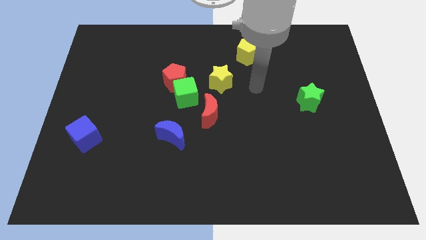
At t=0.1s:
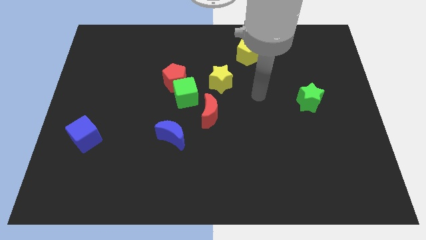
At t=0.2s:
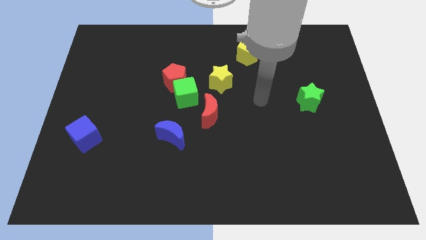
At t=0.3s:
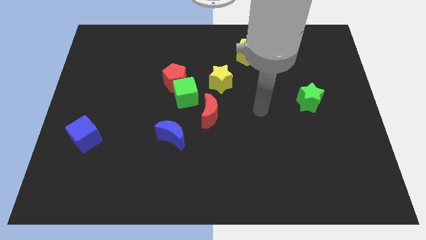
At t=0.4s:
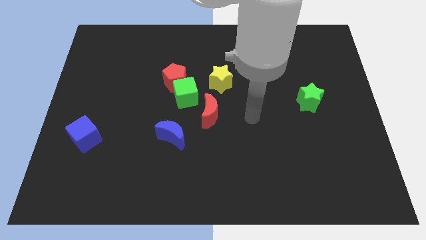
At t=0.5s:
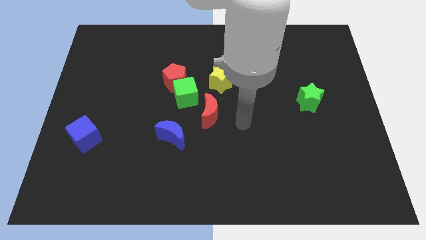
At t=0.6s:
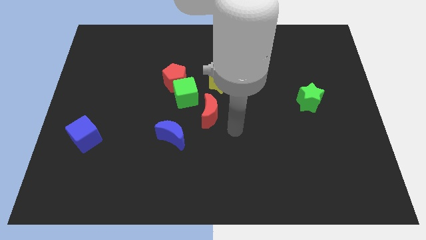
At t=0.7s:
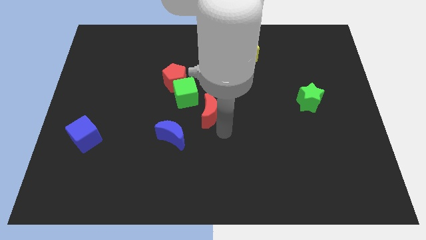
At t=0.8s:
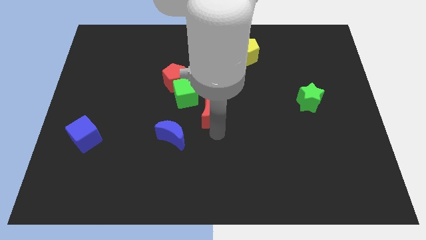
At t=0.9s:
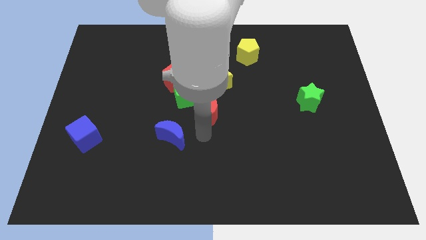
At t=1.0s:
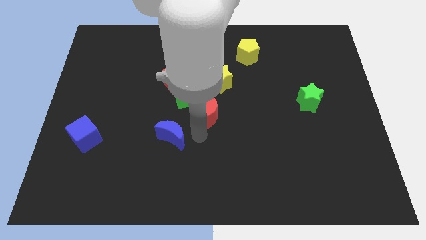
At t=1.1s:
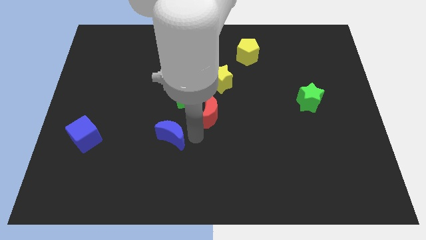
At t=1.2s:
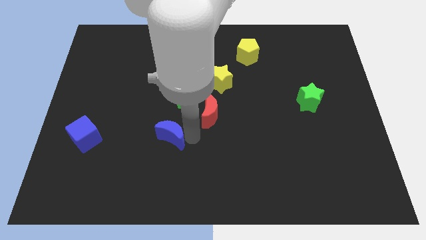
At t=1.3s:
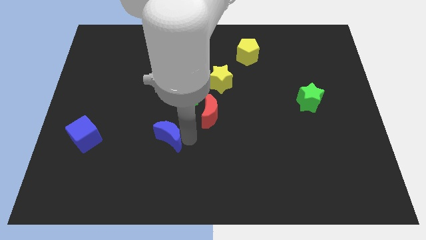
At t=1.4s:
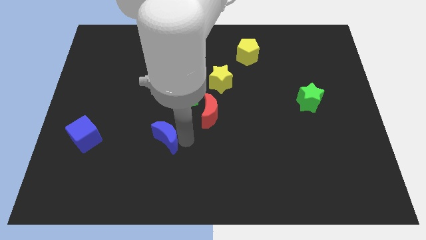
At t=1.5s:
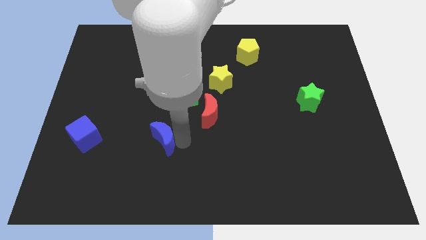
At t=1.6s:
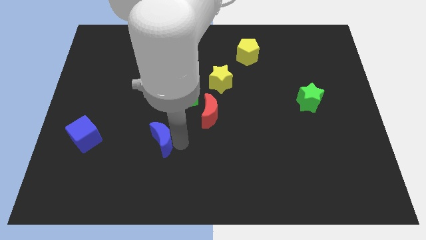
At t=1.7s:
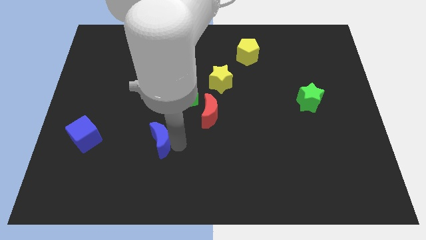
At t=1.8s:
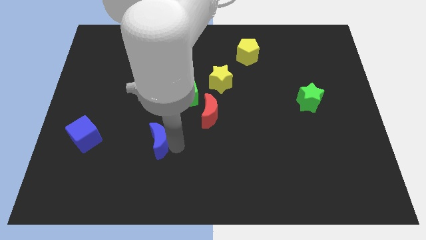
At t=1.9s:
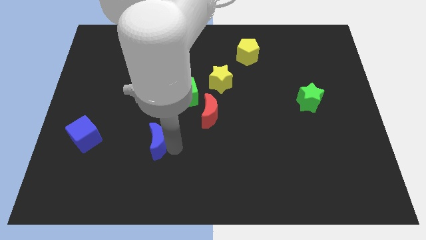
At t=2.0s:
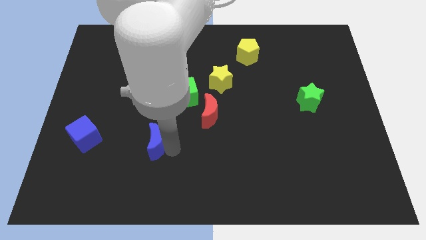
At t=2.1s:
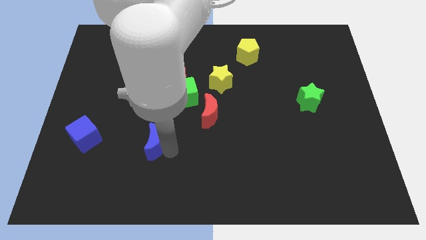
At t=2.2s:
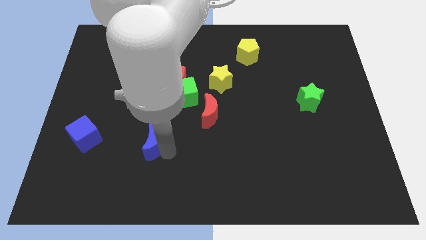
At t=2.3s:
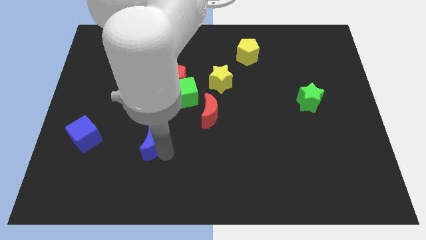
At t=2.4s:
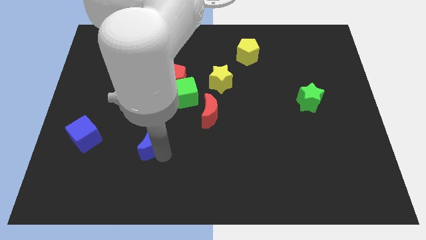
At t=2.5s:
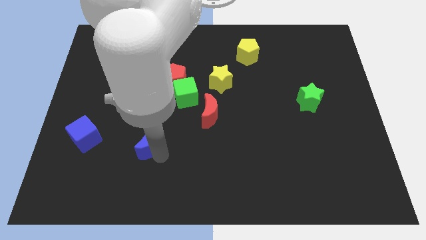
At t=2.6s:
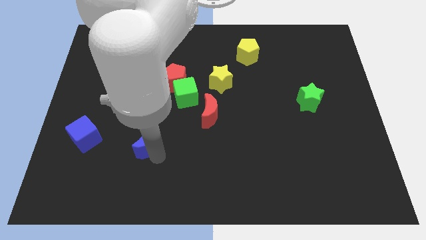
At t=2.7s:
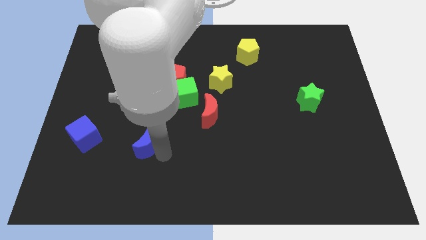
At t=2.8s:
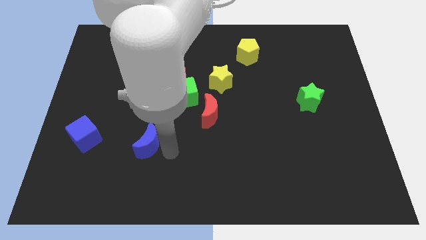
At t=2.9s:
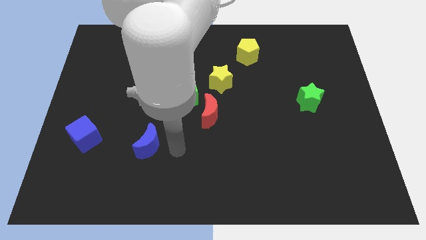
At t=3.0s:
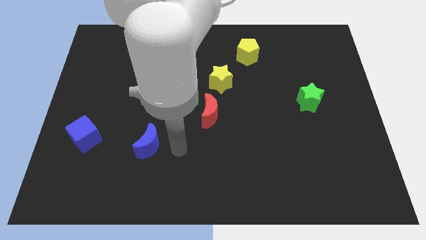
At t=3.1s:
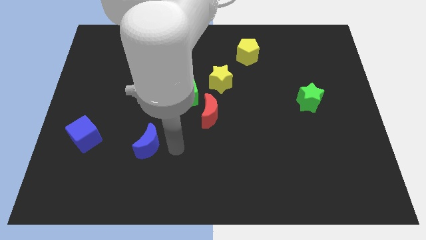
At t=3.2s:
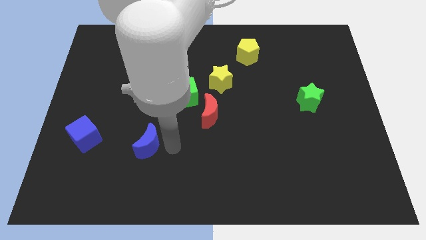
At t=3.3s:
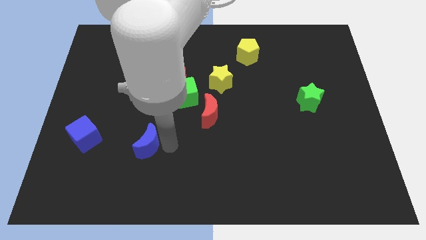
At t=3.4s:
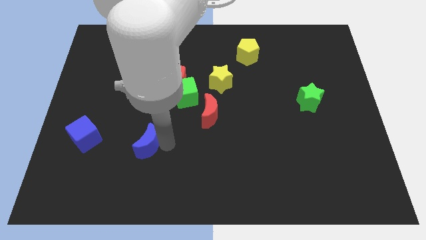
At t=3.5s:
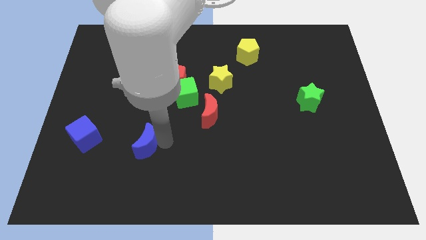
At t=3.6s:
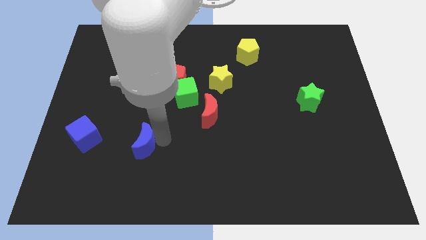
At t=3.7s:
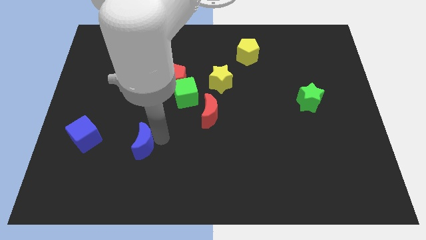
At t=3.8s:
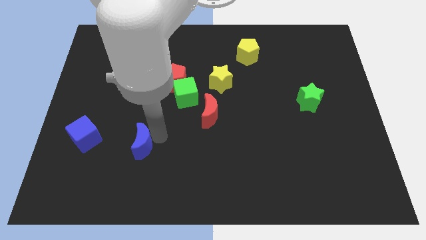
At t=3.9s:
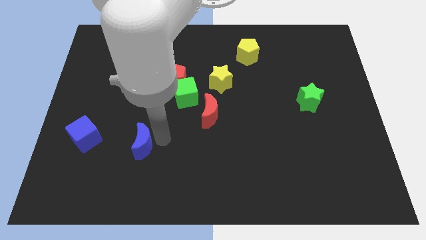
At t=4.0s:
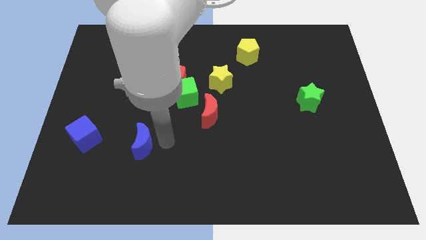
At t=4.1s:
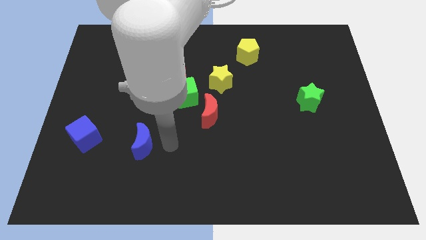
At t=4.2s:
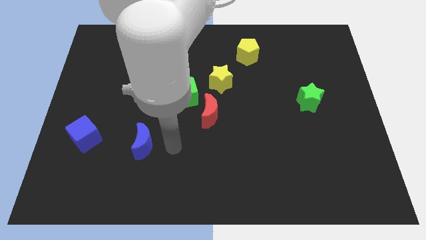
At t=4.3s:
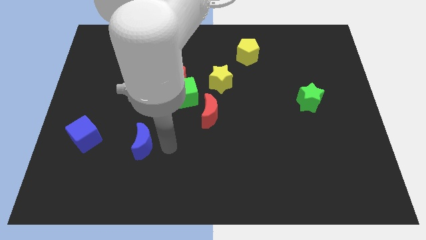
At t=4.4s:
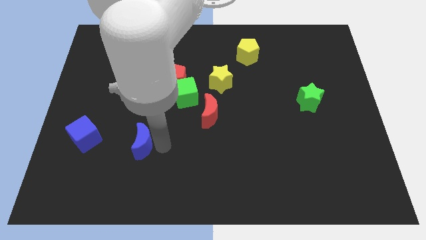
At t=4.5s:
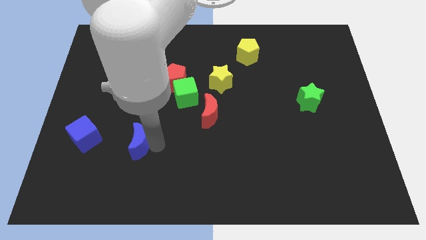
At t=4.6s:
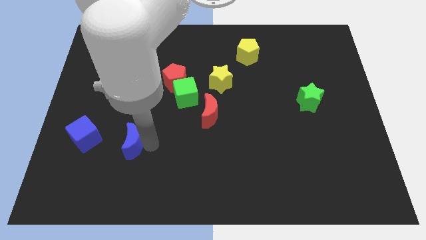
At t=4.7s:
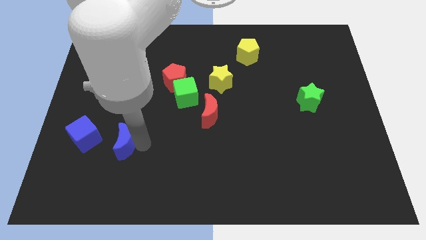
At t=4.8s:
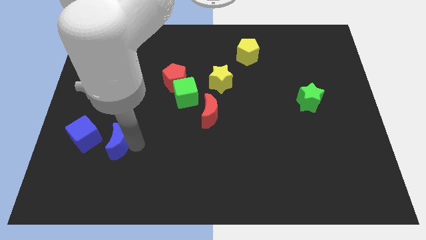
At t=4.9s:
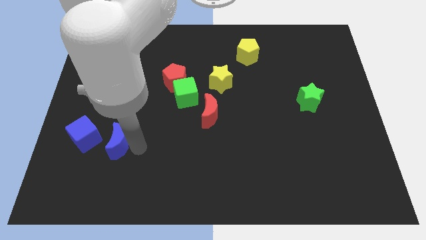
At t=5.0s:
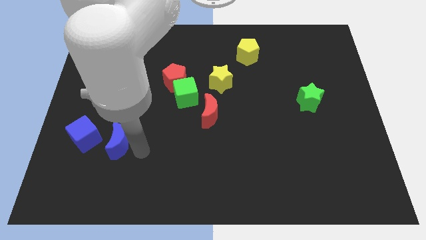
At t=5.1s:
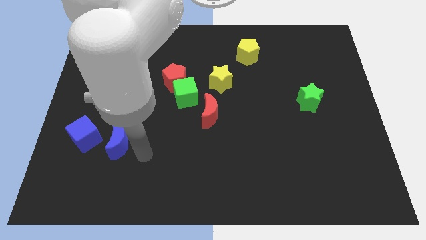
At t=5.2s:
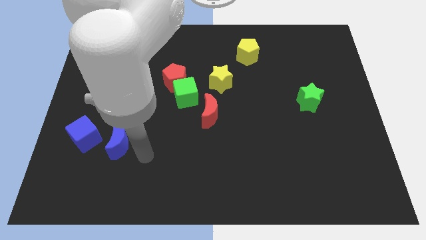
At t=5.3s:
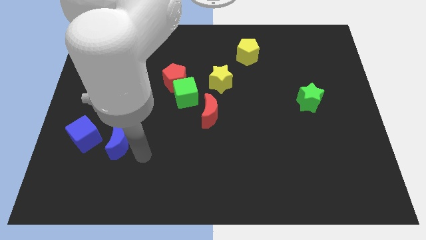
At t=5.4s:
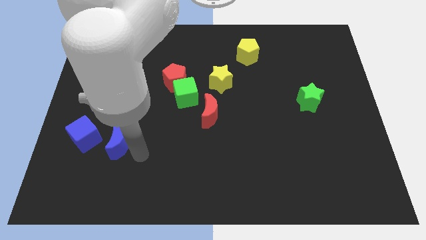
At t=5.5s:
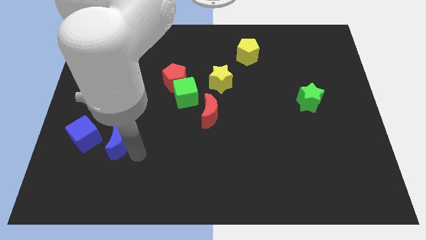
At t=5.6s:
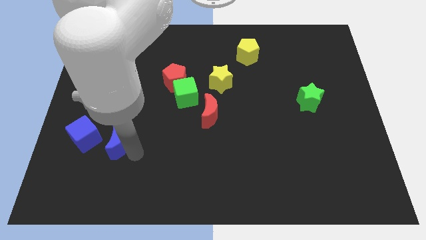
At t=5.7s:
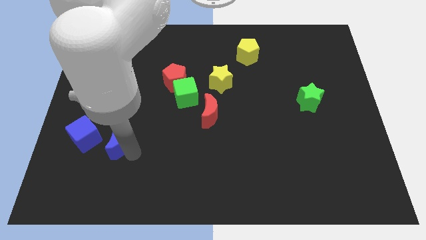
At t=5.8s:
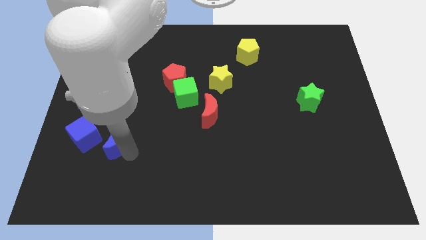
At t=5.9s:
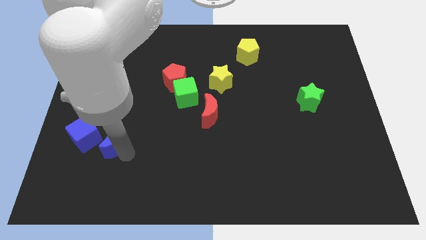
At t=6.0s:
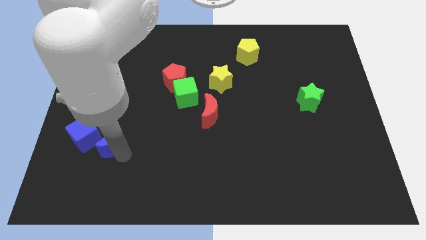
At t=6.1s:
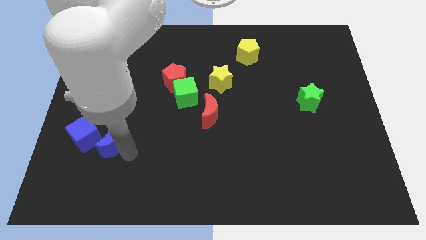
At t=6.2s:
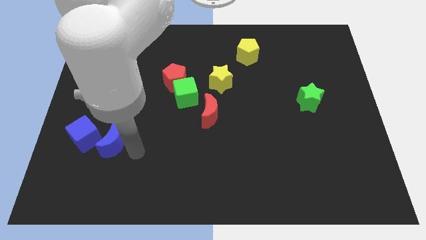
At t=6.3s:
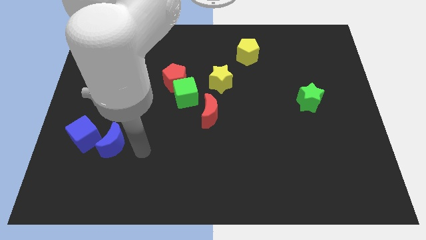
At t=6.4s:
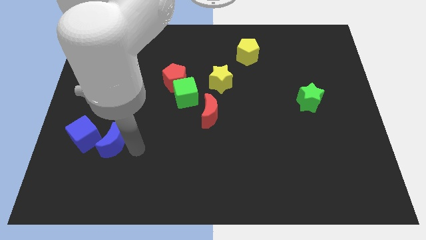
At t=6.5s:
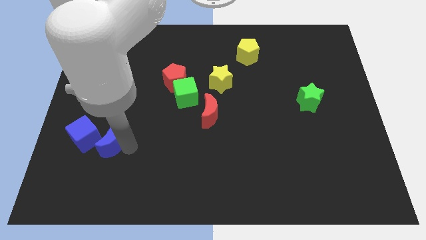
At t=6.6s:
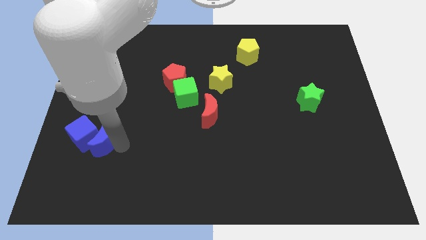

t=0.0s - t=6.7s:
move the blue moon to the blue cube
